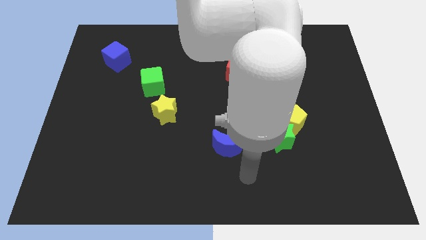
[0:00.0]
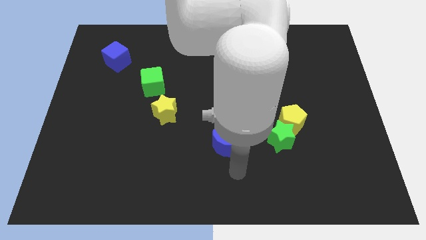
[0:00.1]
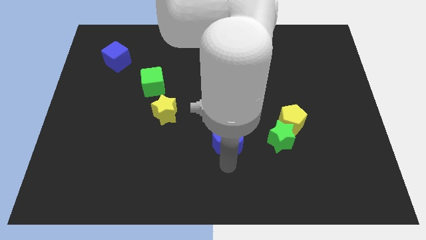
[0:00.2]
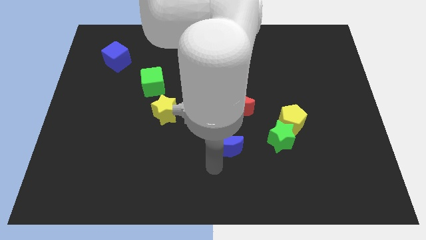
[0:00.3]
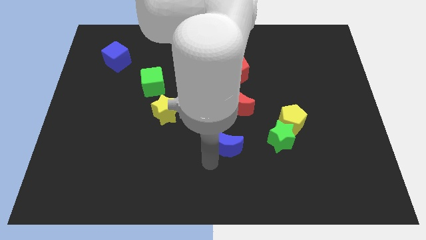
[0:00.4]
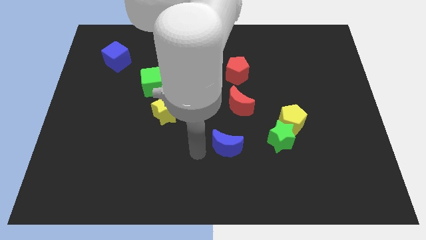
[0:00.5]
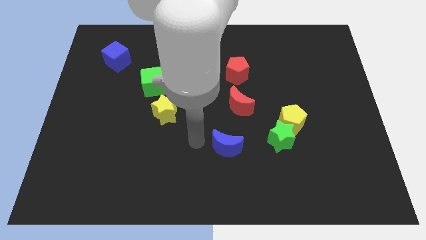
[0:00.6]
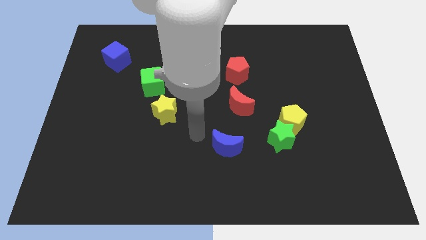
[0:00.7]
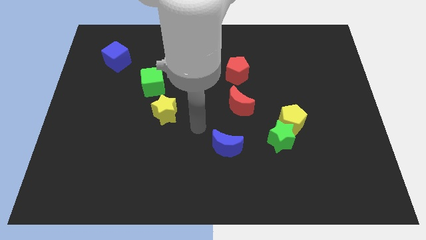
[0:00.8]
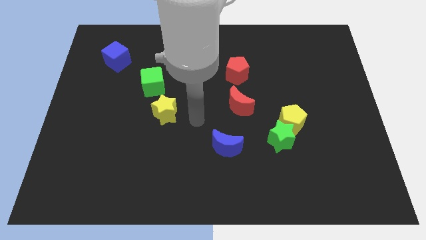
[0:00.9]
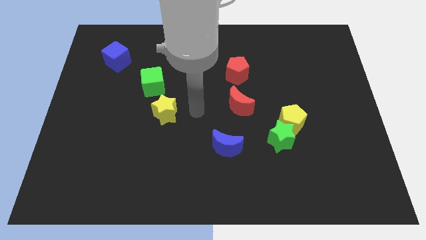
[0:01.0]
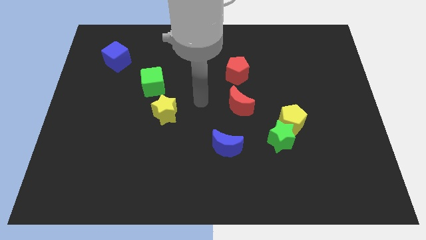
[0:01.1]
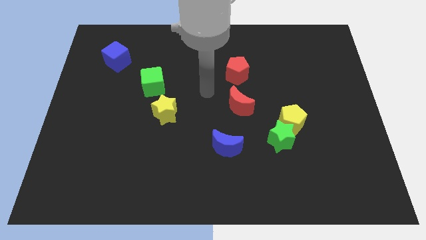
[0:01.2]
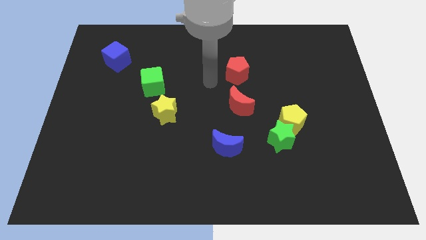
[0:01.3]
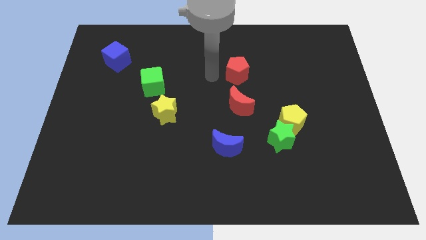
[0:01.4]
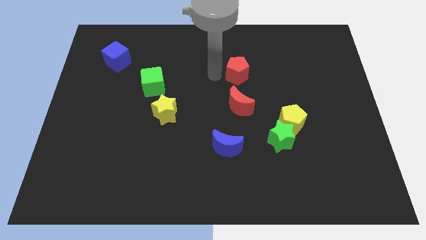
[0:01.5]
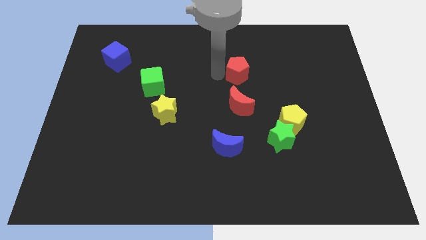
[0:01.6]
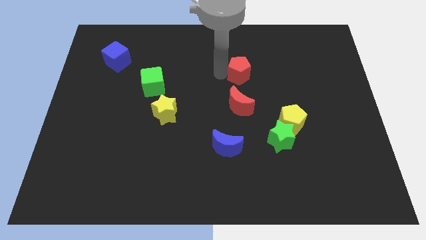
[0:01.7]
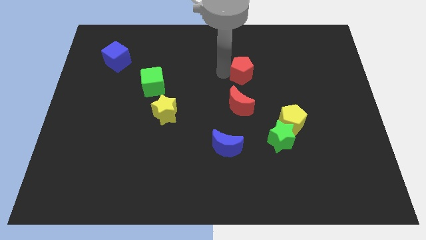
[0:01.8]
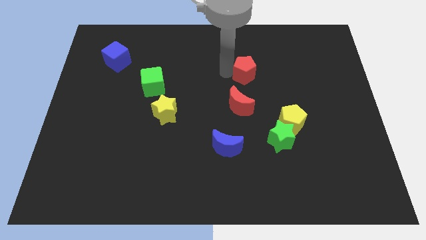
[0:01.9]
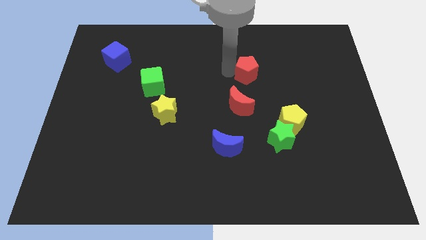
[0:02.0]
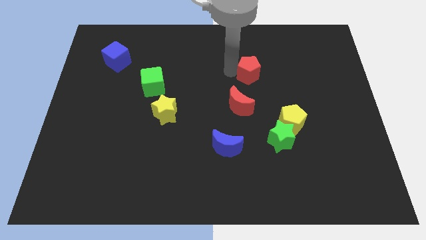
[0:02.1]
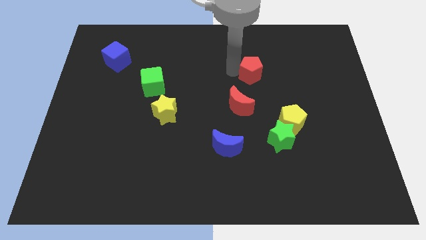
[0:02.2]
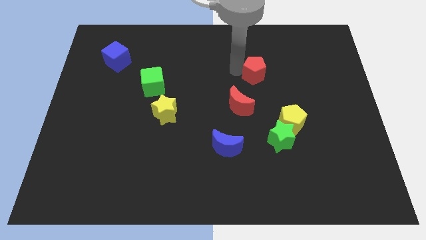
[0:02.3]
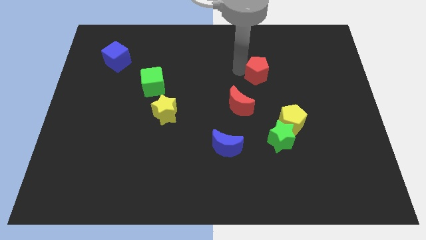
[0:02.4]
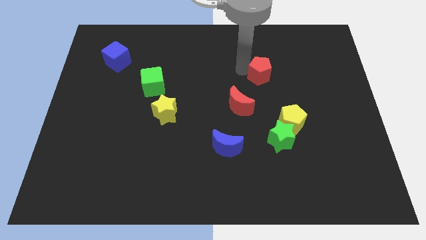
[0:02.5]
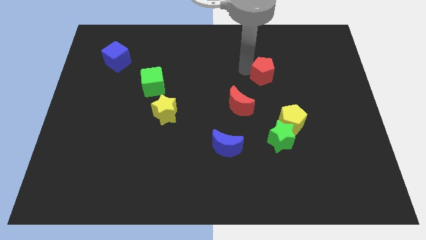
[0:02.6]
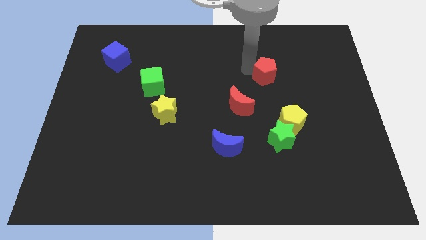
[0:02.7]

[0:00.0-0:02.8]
slide the red pentagon to the right a little

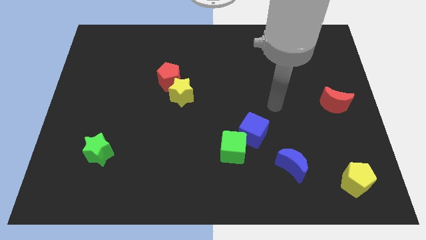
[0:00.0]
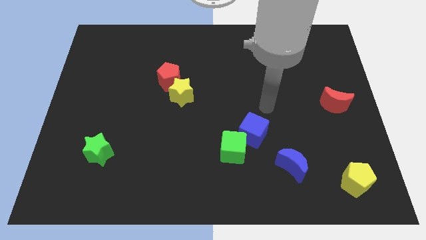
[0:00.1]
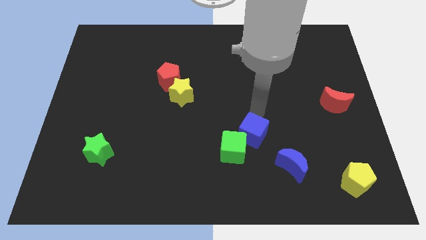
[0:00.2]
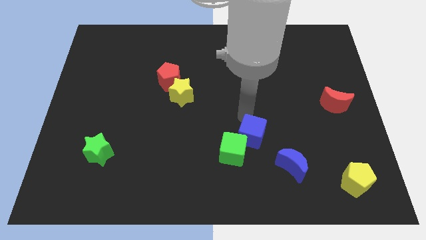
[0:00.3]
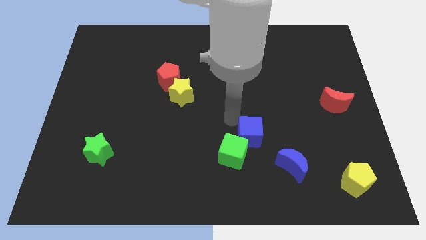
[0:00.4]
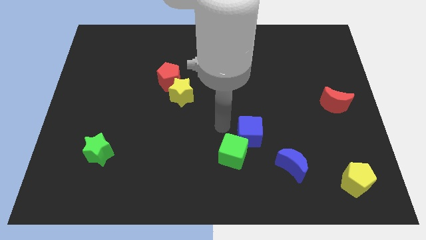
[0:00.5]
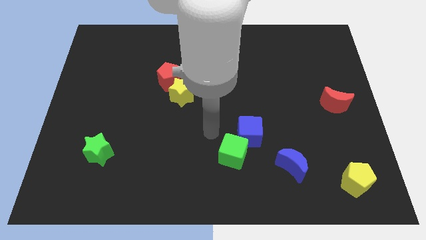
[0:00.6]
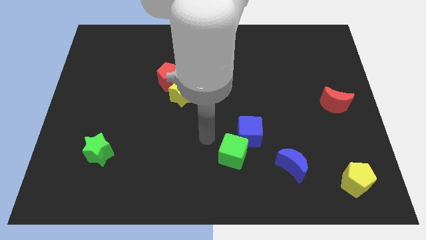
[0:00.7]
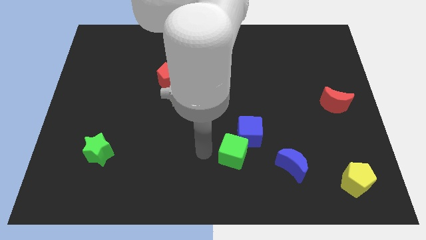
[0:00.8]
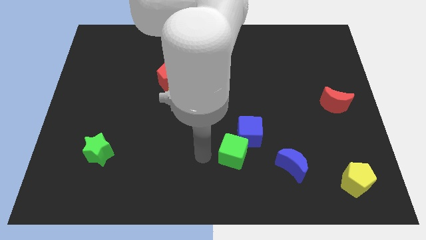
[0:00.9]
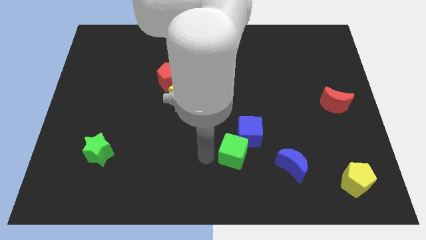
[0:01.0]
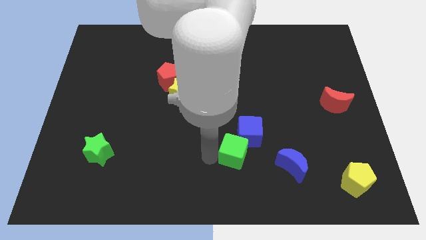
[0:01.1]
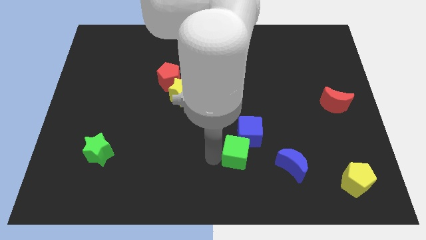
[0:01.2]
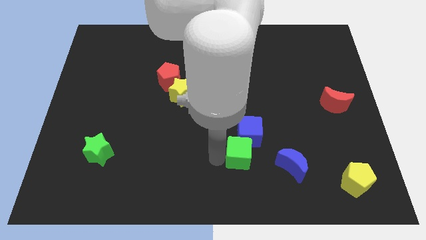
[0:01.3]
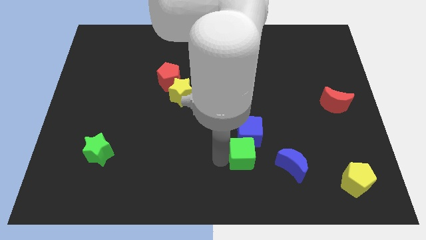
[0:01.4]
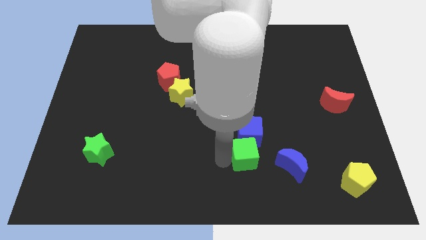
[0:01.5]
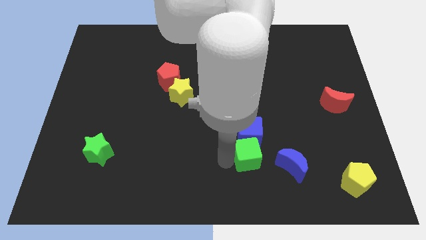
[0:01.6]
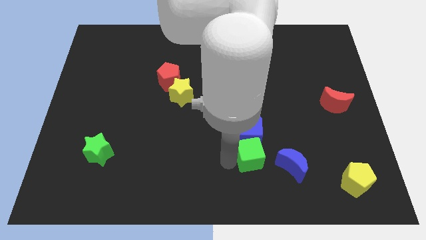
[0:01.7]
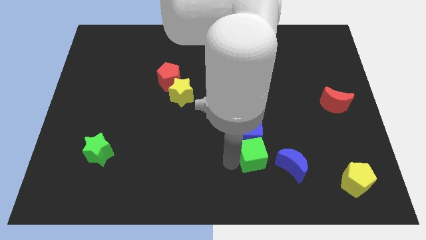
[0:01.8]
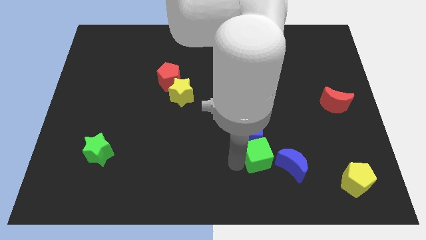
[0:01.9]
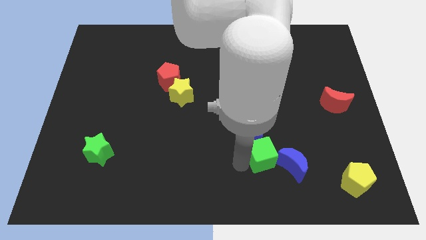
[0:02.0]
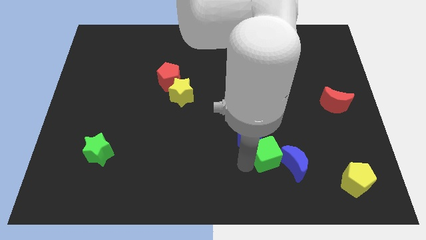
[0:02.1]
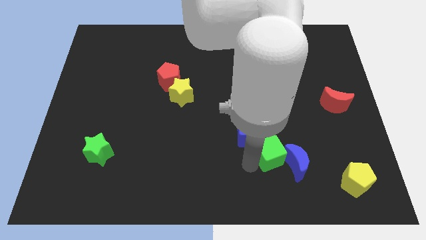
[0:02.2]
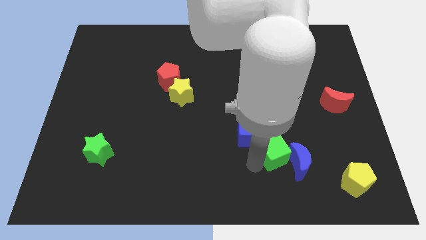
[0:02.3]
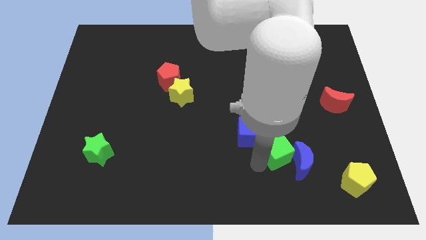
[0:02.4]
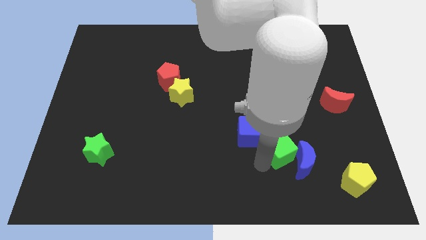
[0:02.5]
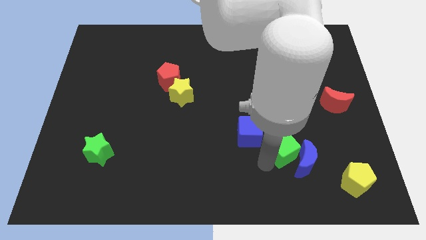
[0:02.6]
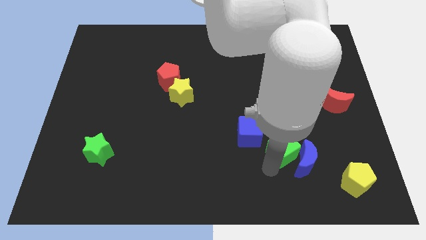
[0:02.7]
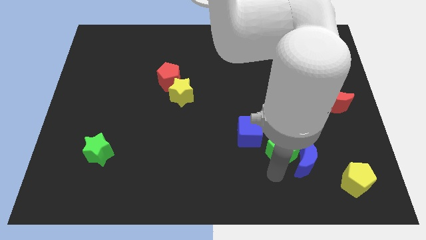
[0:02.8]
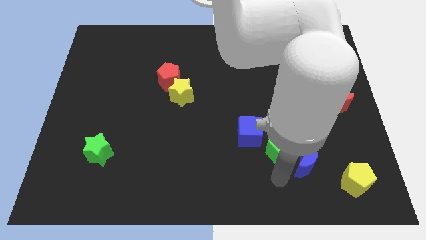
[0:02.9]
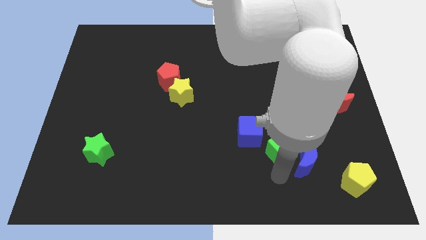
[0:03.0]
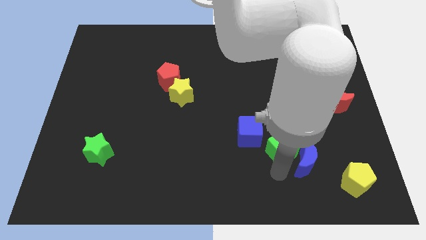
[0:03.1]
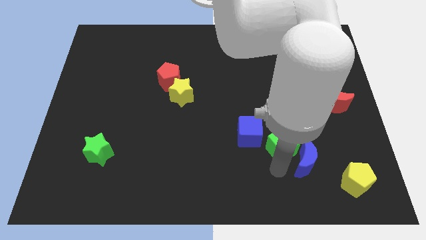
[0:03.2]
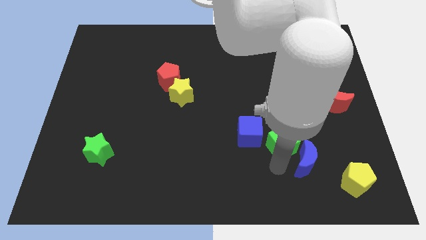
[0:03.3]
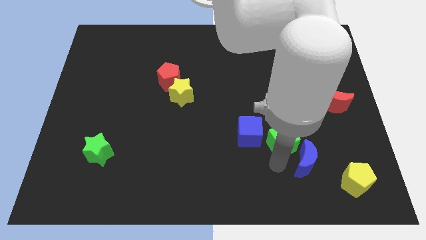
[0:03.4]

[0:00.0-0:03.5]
move the green cube somewhat upwards and to the right

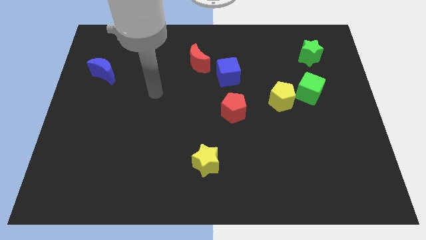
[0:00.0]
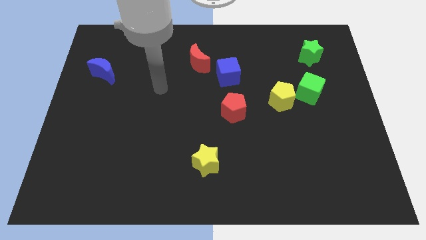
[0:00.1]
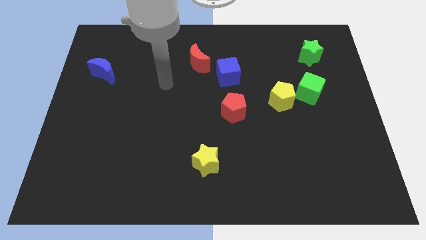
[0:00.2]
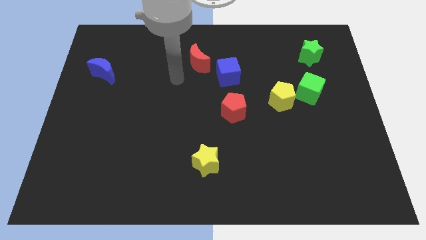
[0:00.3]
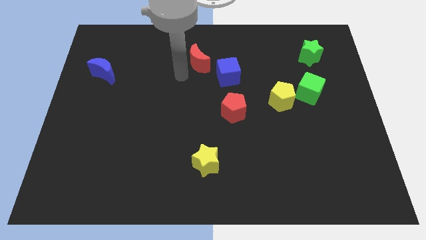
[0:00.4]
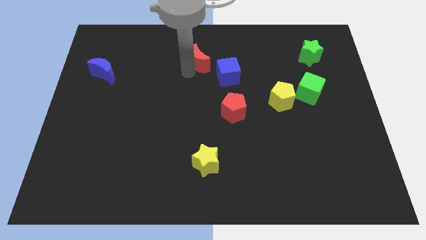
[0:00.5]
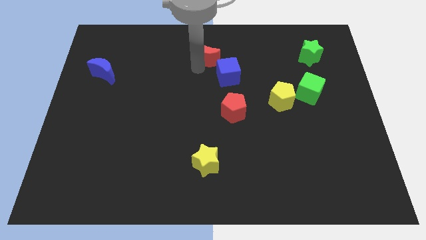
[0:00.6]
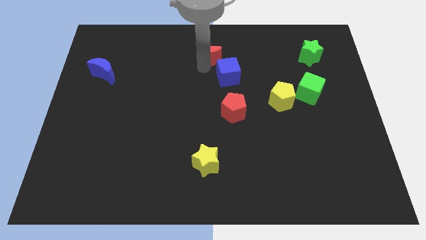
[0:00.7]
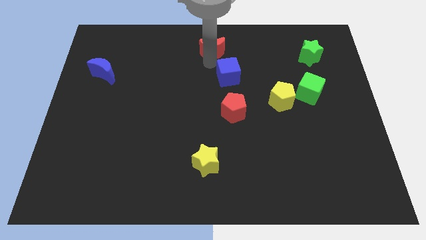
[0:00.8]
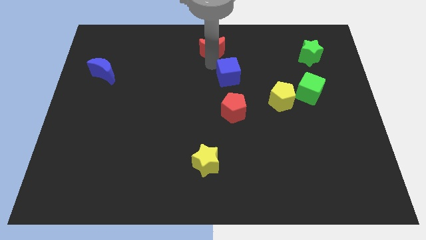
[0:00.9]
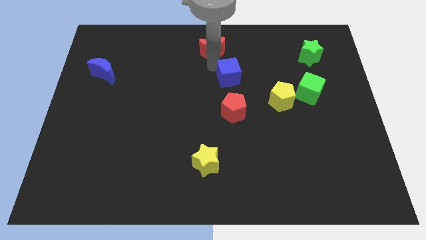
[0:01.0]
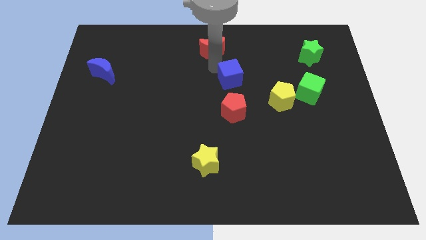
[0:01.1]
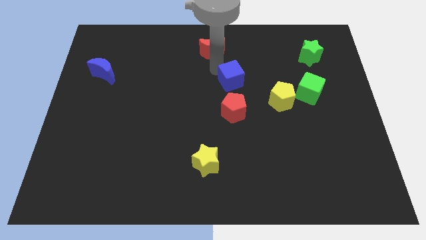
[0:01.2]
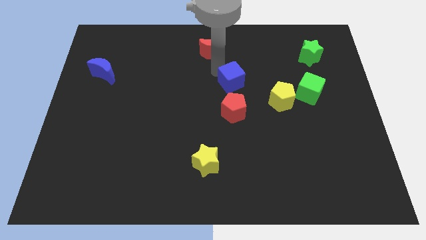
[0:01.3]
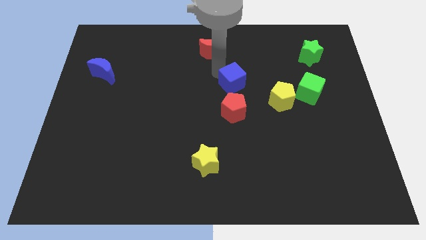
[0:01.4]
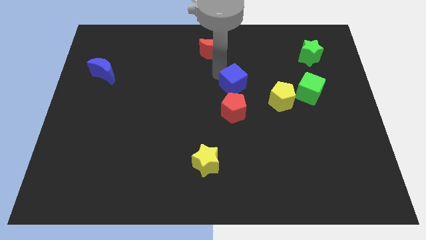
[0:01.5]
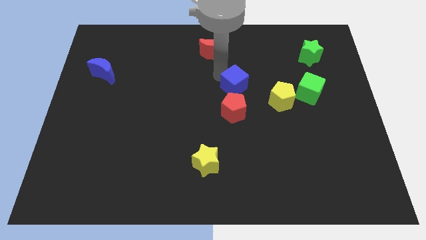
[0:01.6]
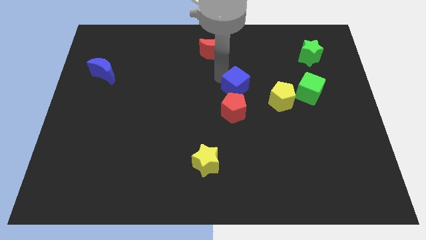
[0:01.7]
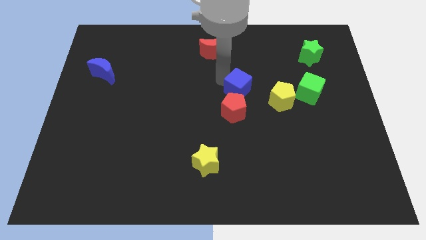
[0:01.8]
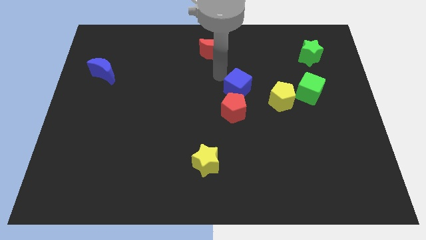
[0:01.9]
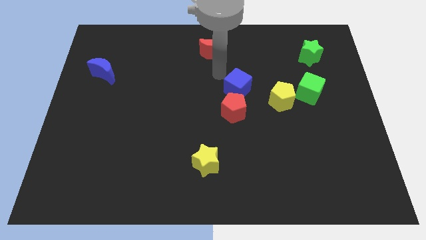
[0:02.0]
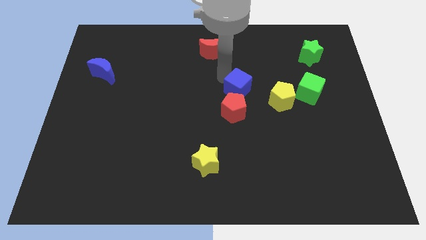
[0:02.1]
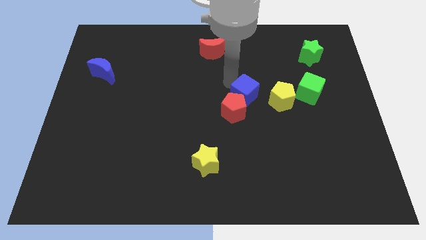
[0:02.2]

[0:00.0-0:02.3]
push the blue cube slightly diagonally downwards and to the right
